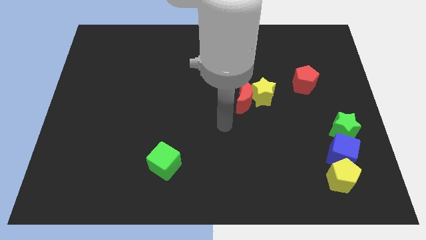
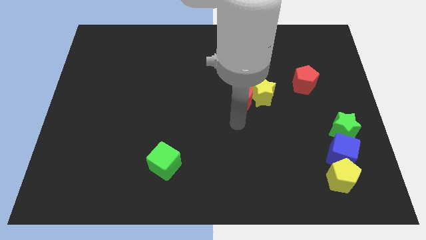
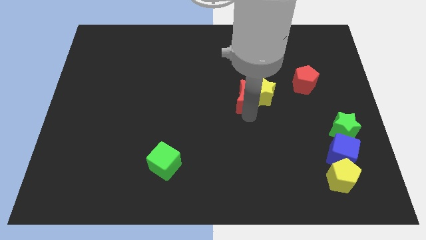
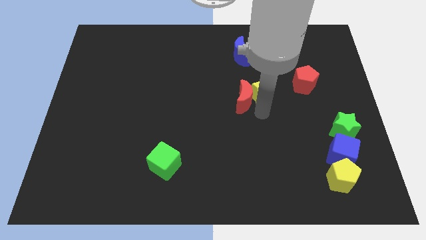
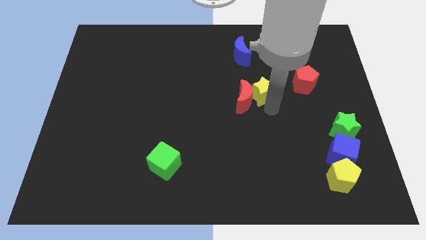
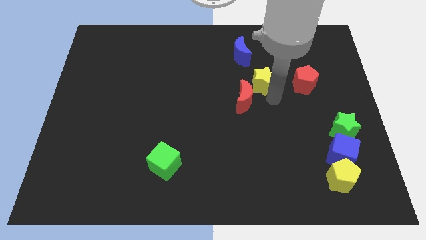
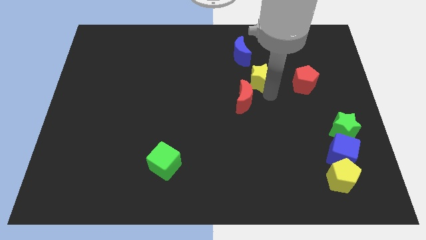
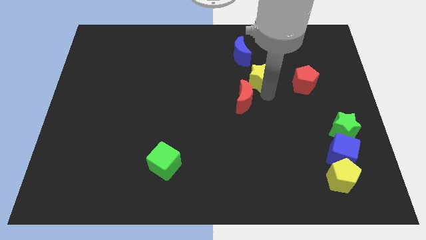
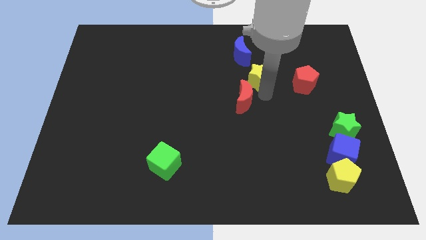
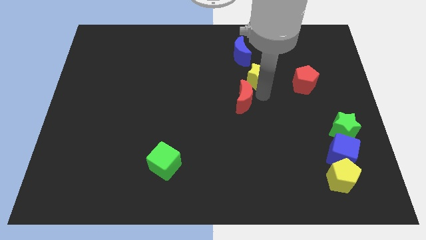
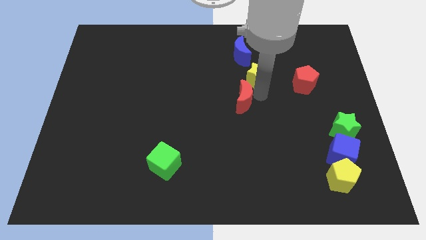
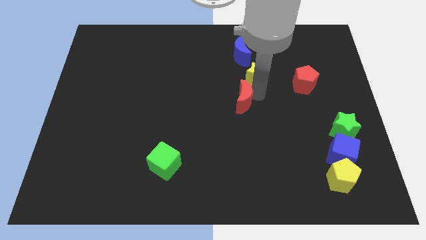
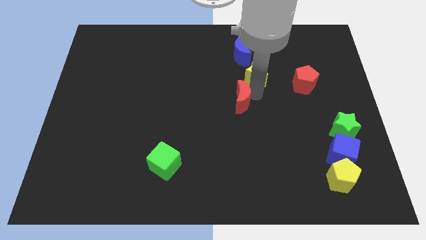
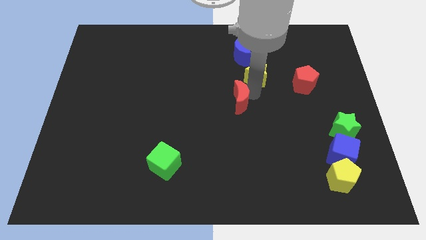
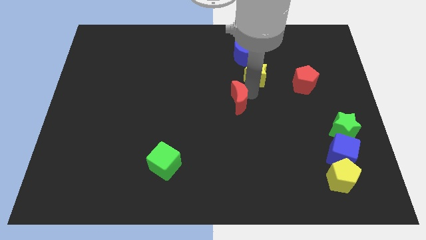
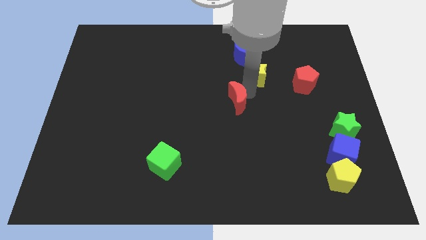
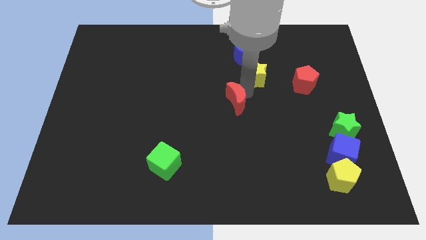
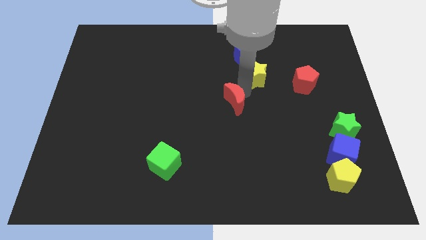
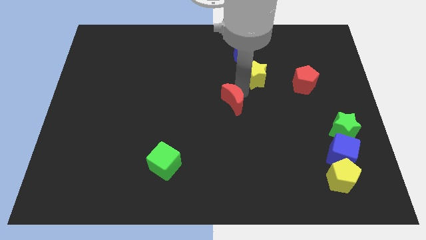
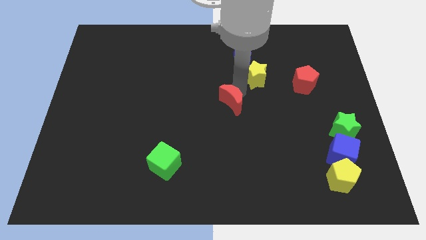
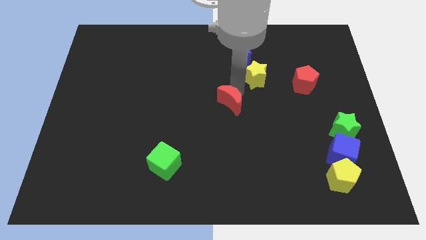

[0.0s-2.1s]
separate the red moon from the yellow star

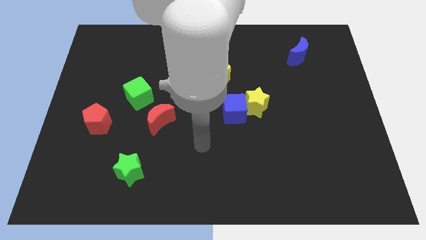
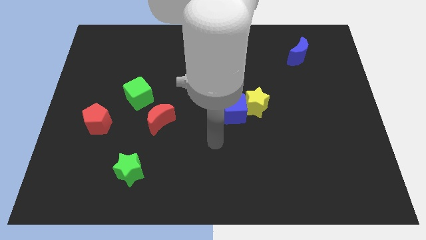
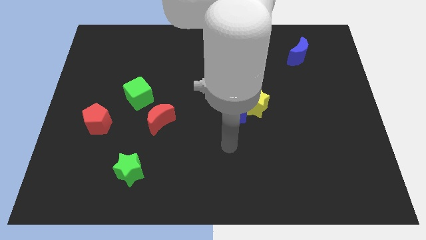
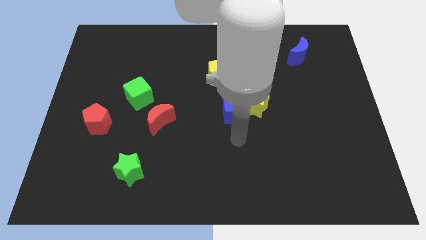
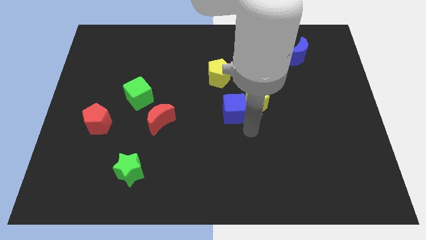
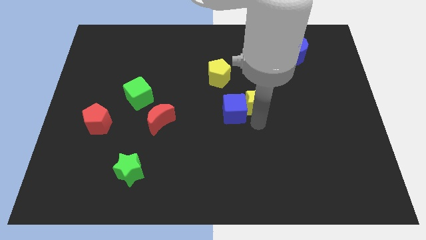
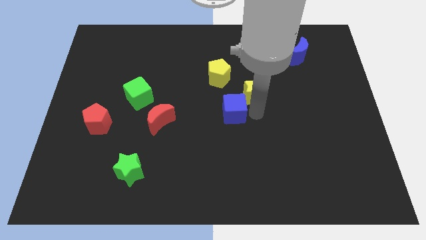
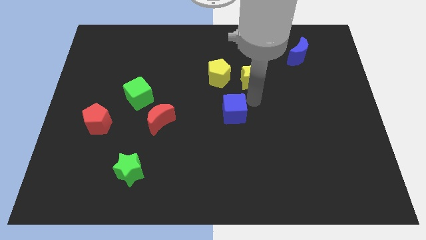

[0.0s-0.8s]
separate the blue cube from the yellow star

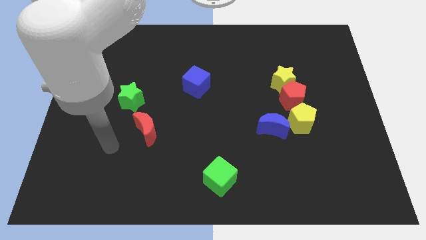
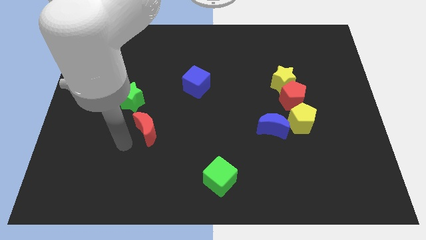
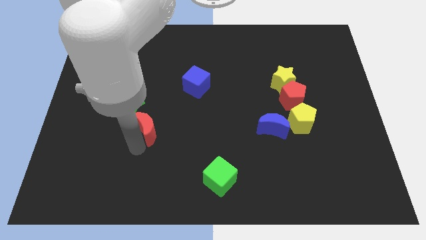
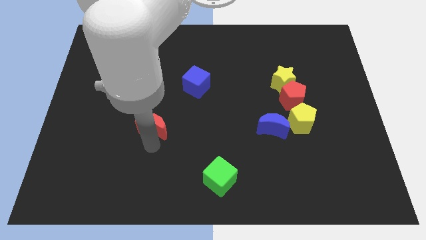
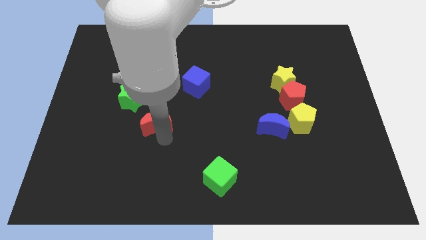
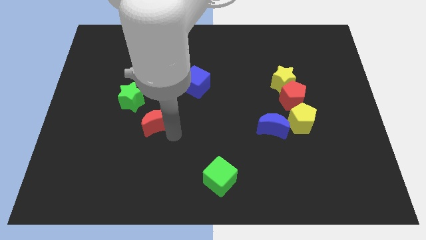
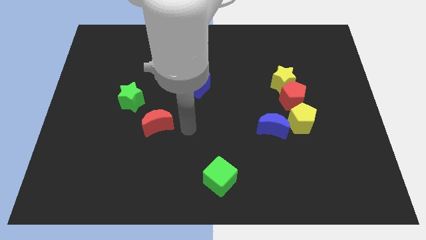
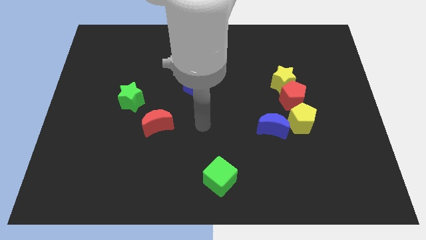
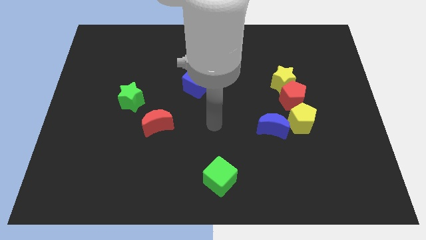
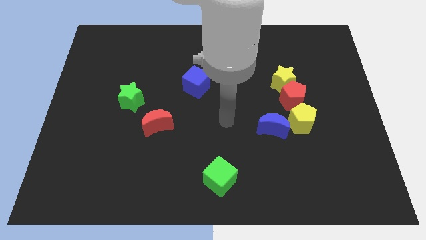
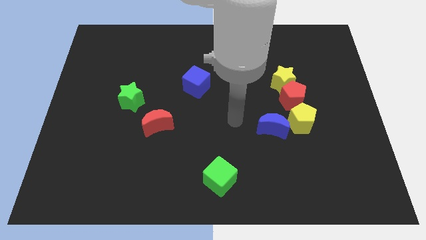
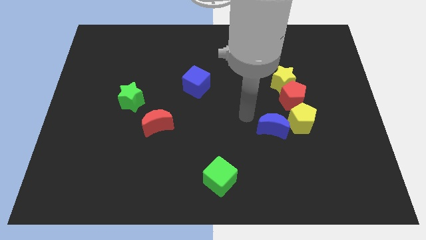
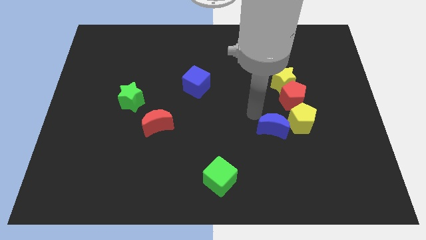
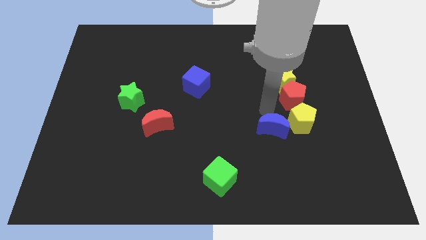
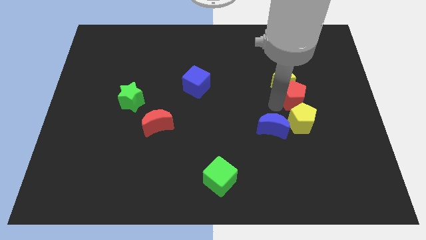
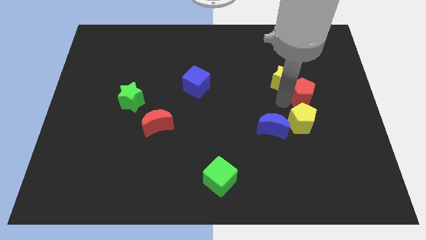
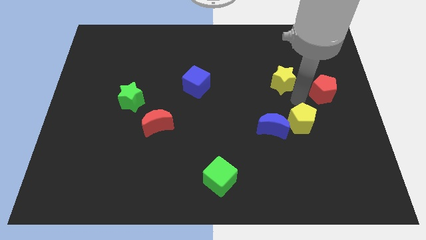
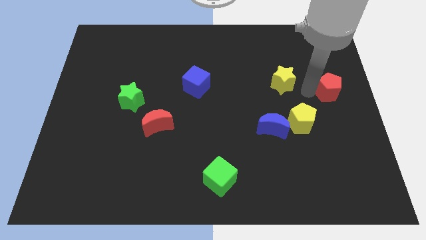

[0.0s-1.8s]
move the yellow star away from the red pentagon

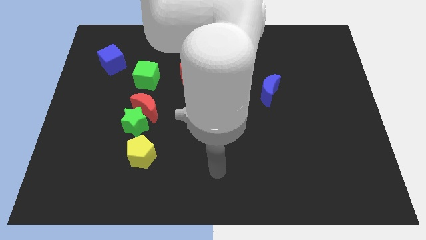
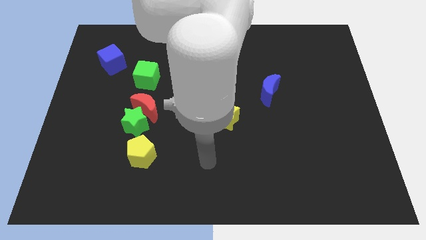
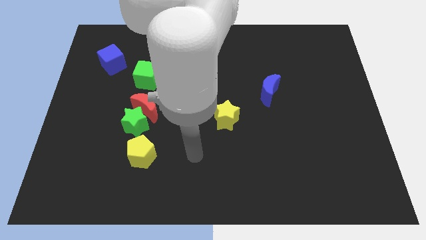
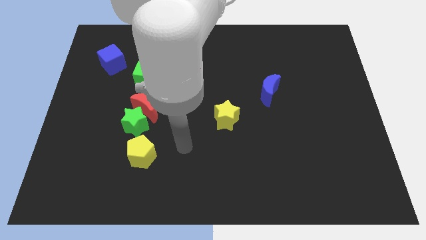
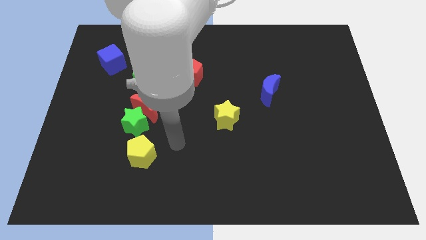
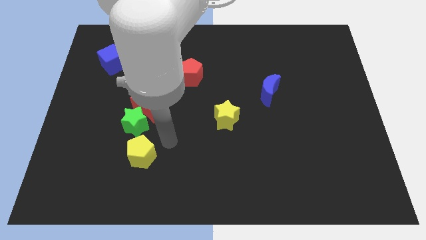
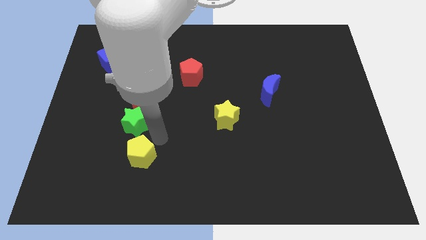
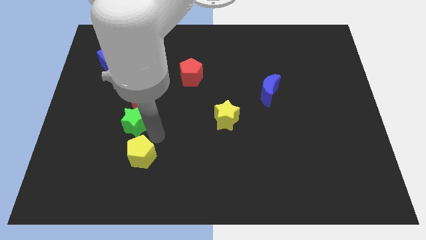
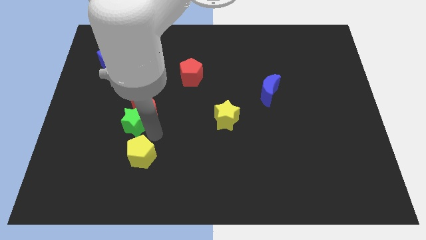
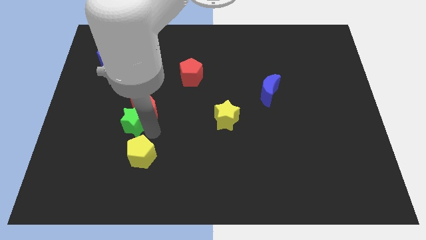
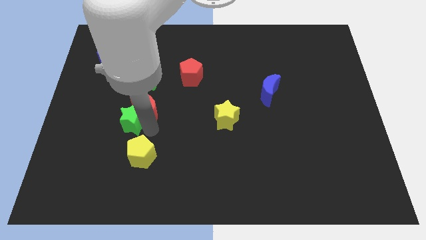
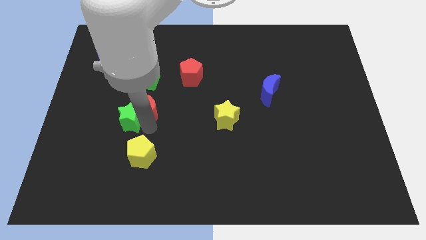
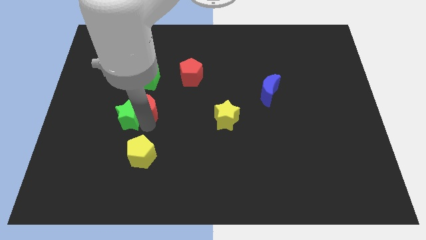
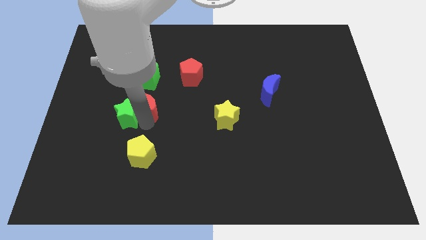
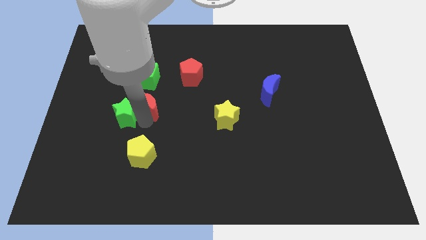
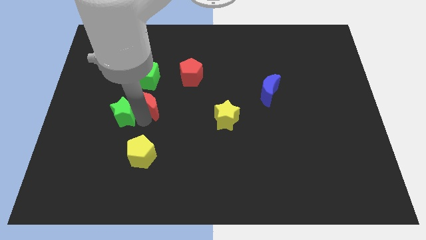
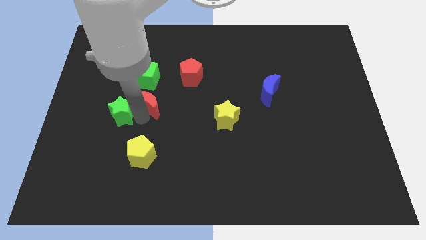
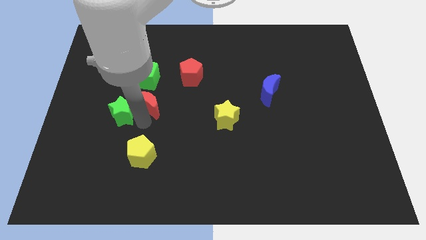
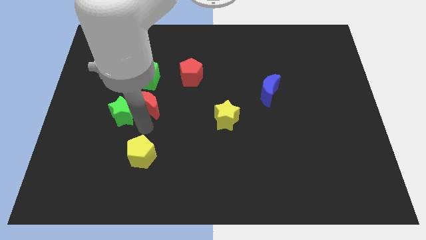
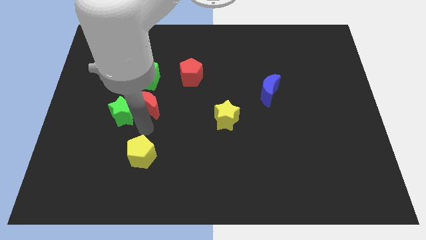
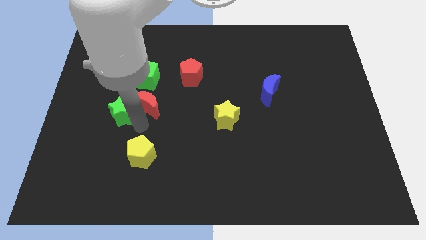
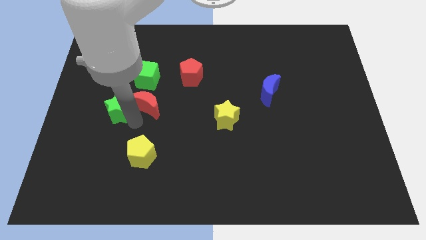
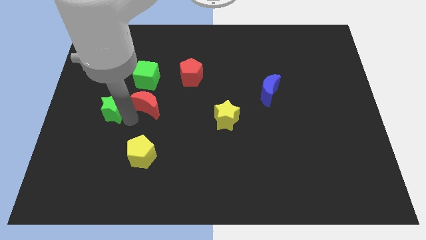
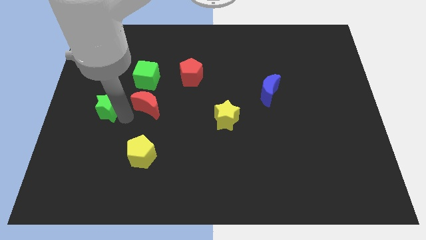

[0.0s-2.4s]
pull the green star apart from the red moon and yellow pentagon

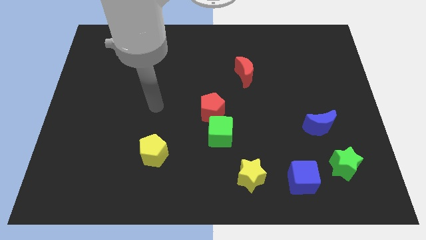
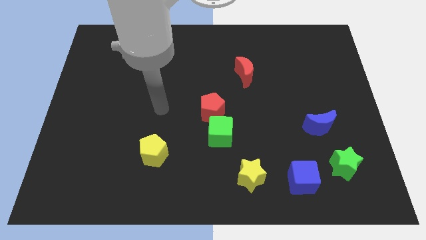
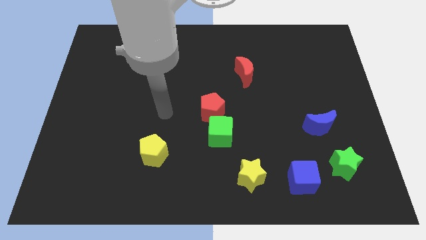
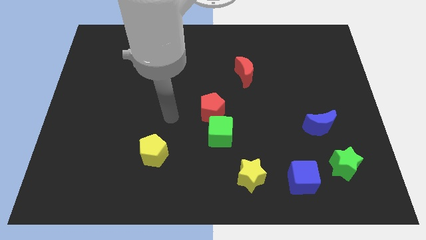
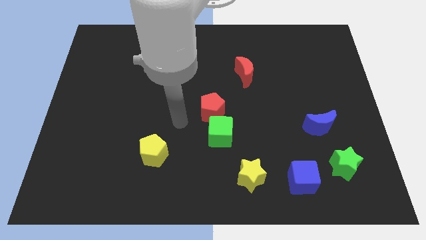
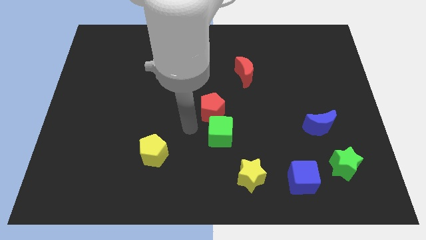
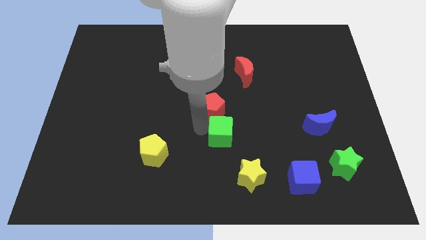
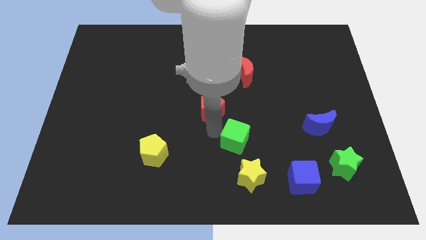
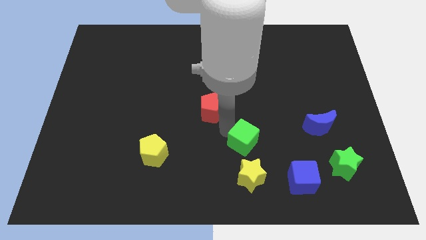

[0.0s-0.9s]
pull the red pentagon apart from the green cube

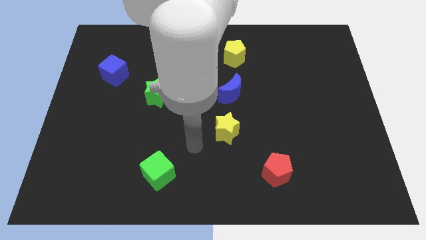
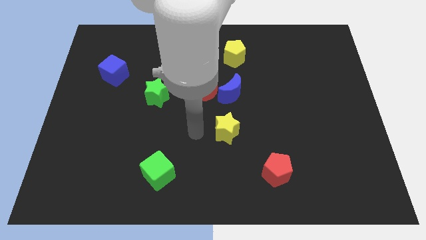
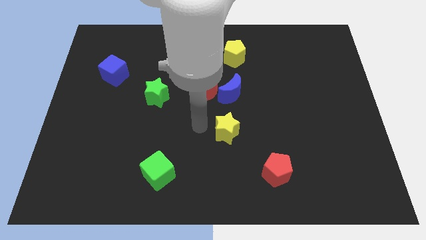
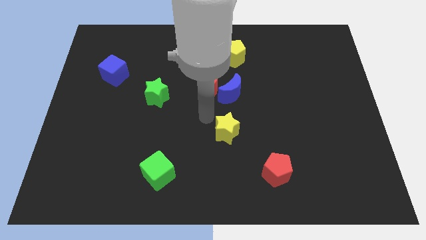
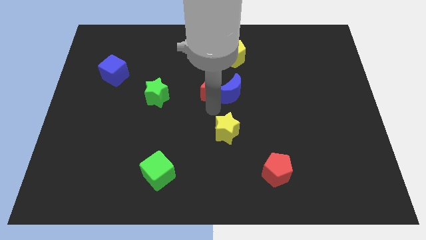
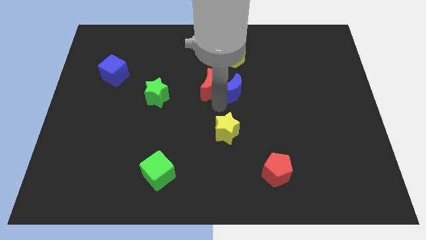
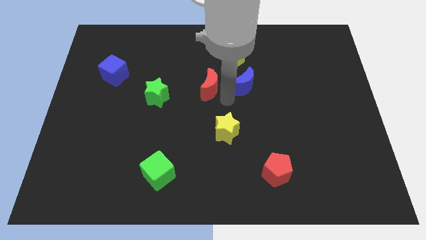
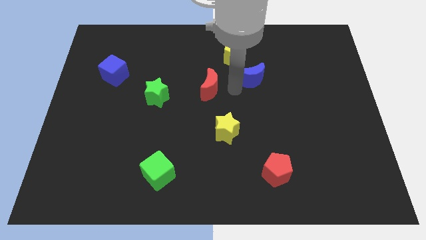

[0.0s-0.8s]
move the red moon away from the blue moon

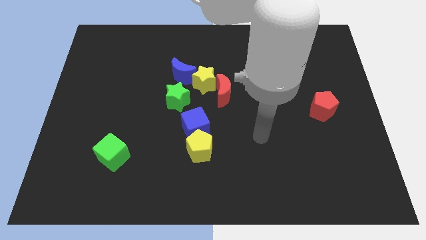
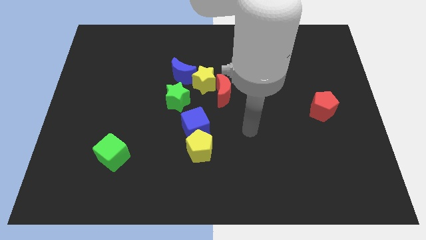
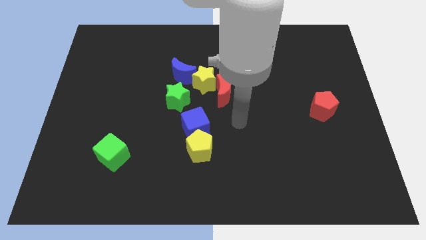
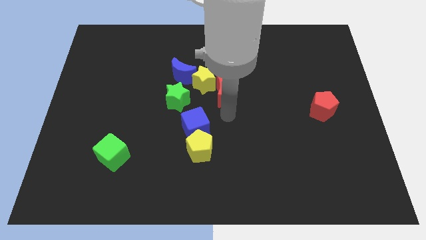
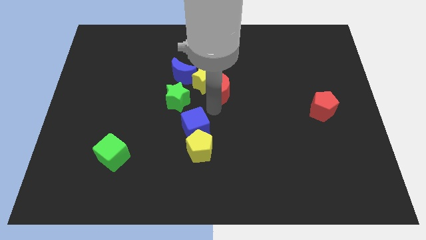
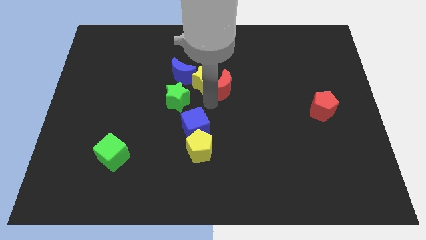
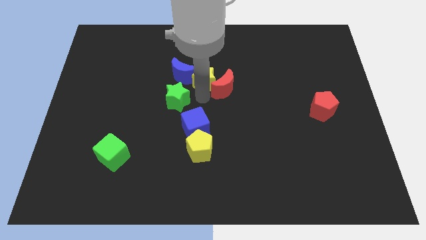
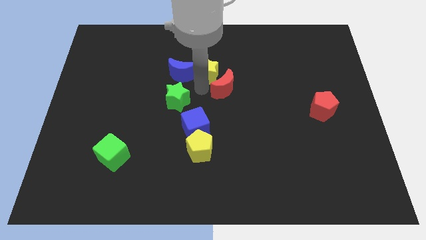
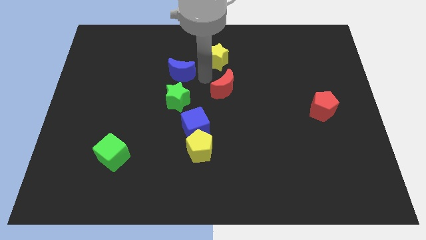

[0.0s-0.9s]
pull the red moon apart from the yellow star
